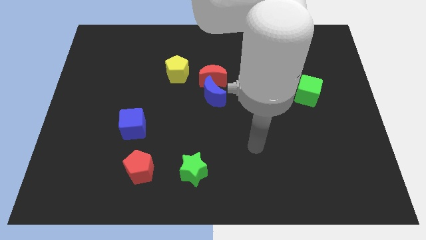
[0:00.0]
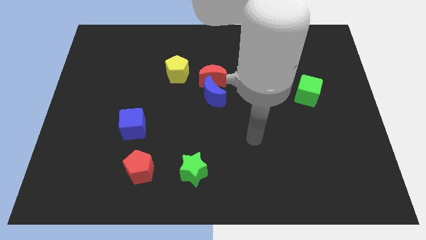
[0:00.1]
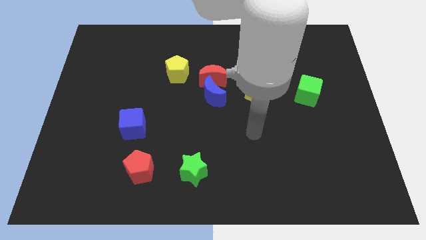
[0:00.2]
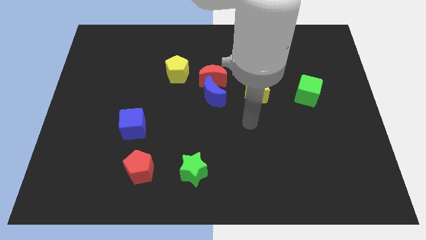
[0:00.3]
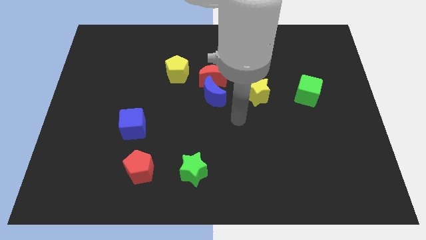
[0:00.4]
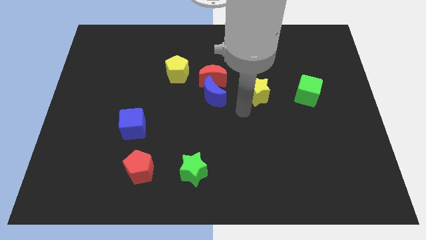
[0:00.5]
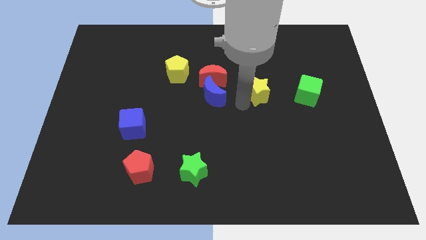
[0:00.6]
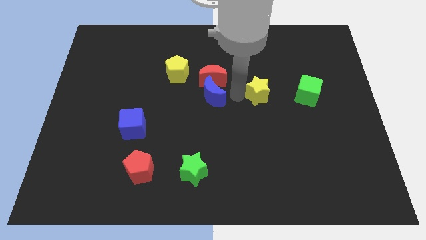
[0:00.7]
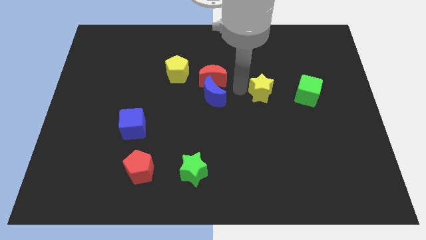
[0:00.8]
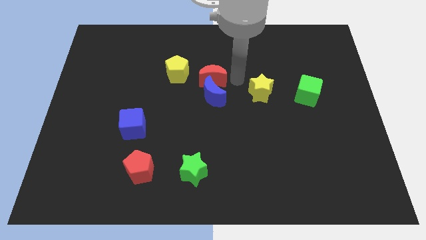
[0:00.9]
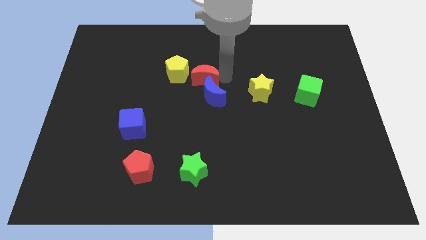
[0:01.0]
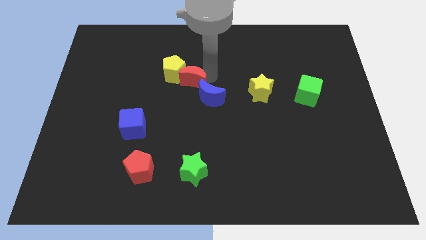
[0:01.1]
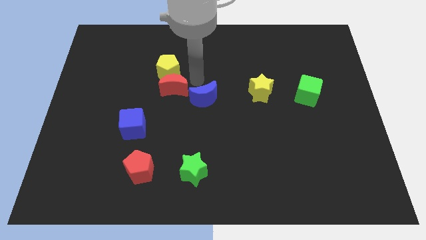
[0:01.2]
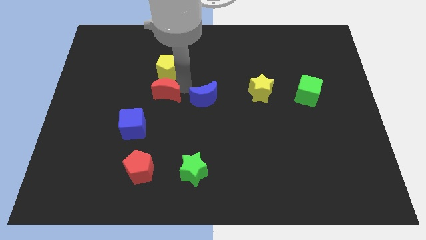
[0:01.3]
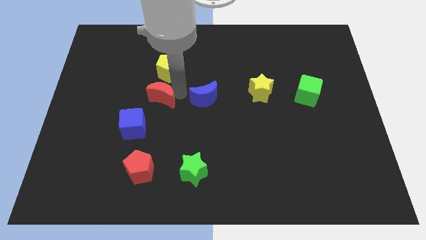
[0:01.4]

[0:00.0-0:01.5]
pull the blue moon apart from the red moon

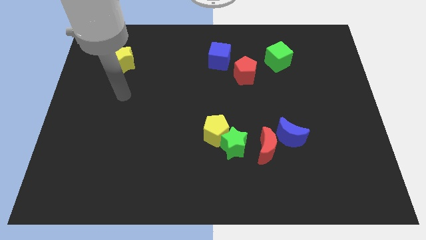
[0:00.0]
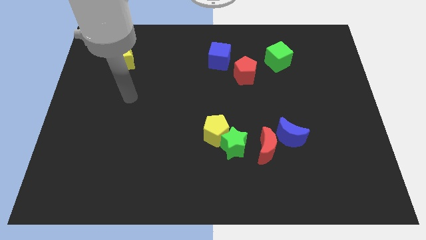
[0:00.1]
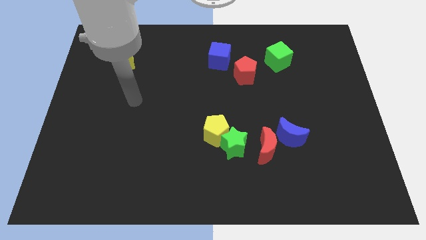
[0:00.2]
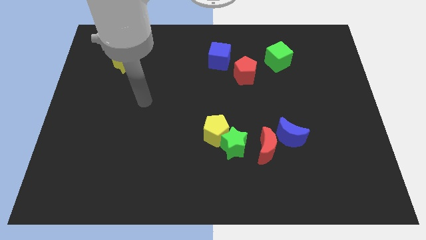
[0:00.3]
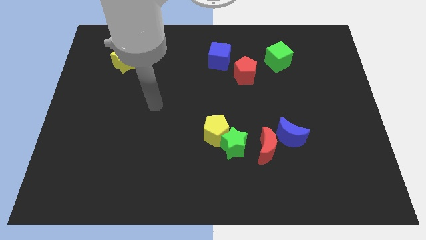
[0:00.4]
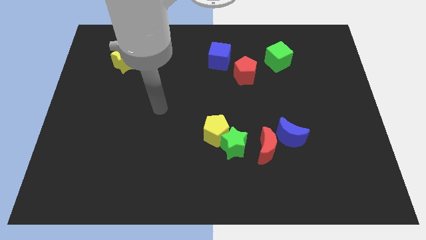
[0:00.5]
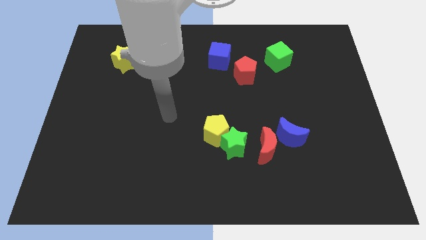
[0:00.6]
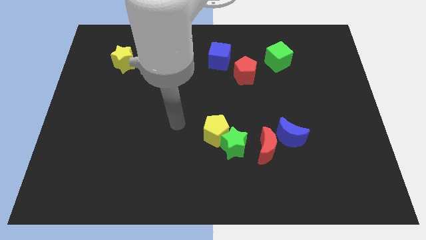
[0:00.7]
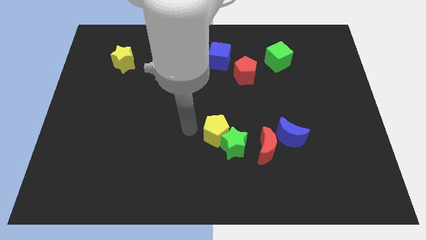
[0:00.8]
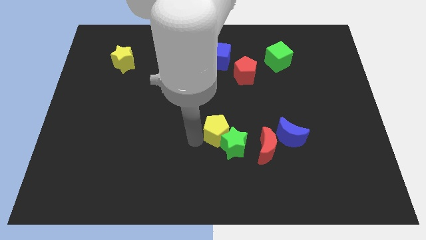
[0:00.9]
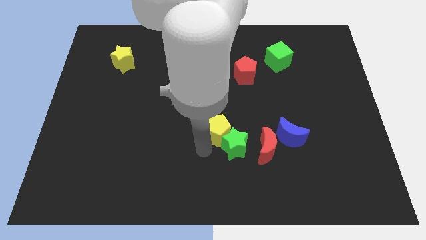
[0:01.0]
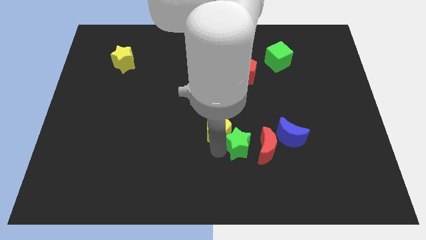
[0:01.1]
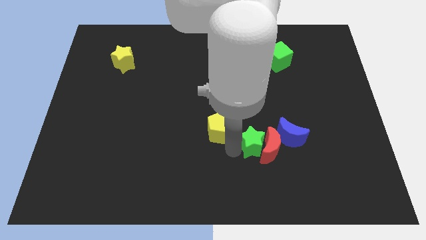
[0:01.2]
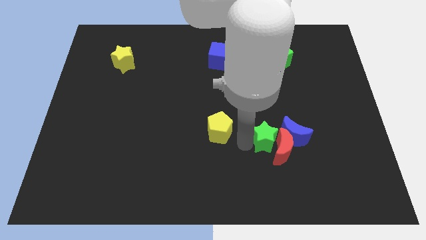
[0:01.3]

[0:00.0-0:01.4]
move the yellow pentagon away from the green star

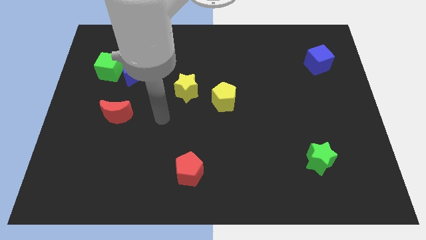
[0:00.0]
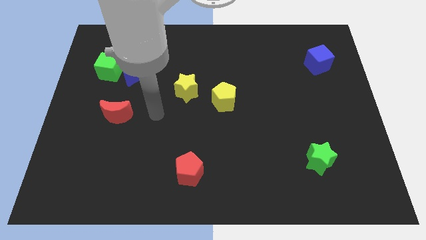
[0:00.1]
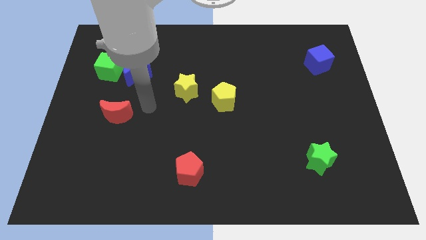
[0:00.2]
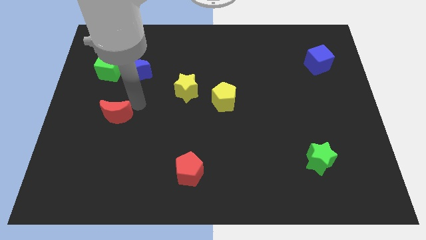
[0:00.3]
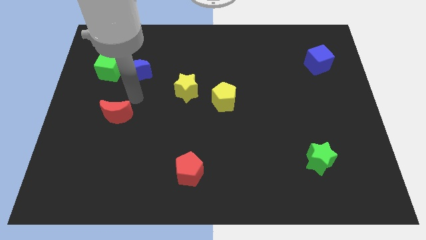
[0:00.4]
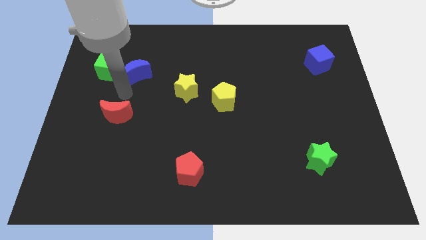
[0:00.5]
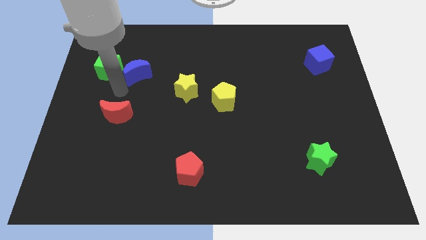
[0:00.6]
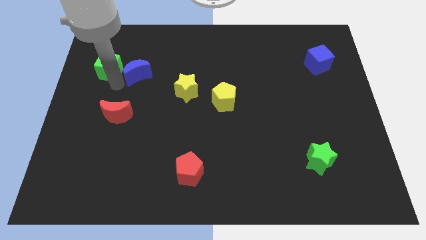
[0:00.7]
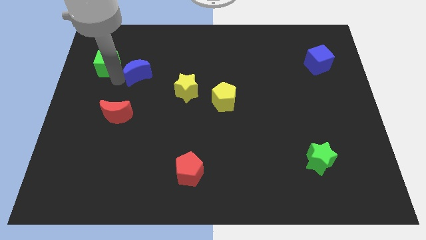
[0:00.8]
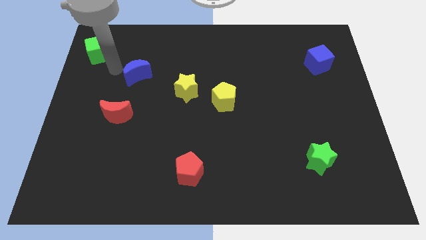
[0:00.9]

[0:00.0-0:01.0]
pull the blue moon apart from the green cube

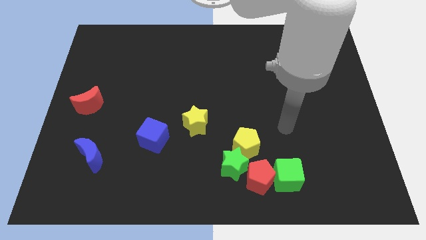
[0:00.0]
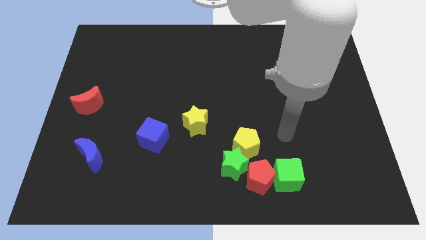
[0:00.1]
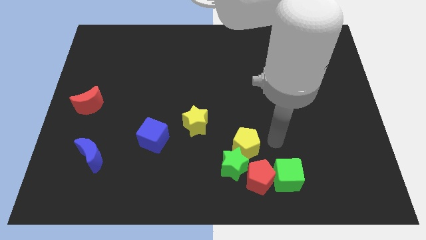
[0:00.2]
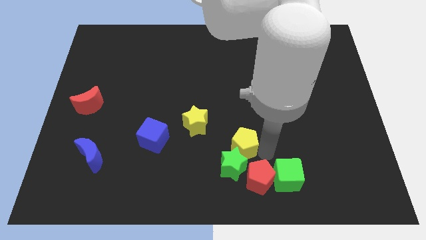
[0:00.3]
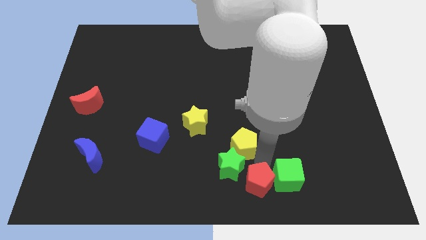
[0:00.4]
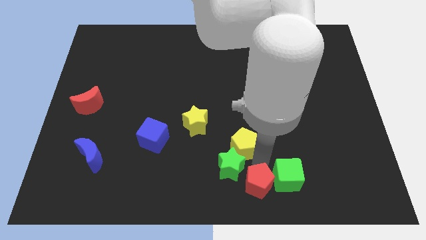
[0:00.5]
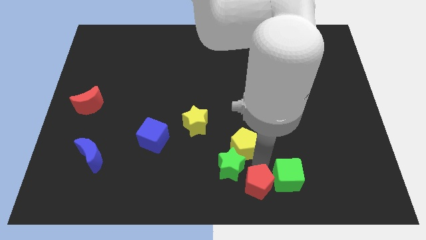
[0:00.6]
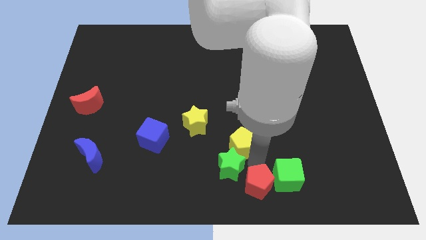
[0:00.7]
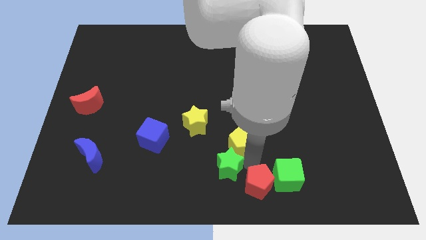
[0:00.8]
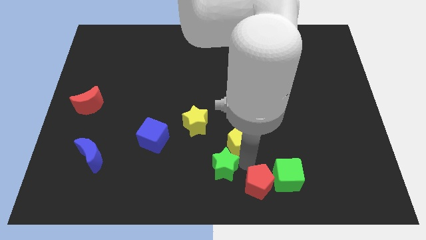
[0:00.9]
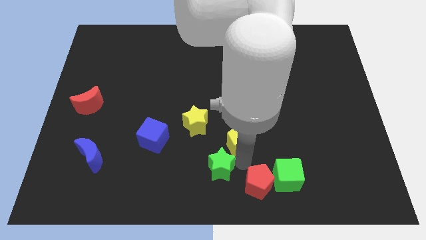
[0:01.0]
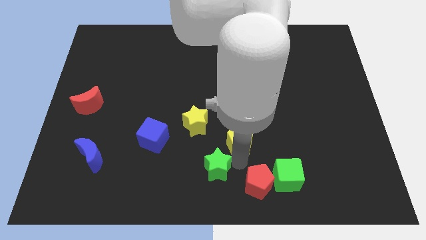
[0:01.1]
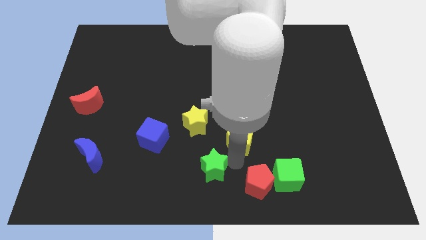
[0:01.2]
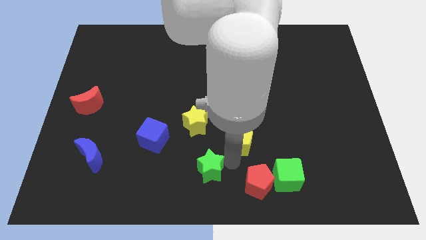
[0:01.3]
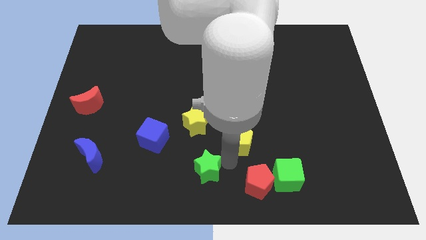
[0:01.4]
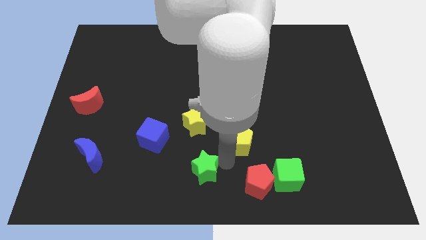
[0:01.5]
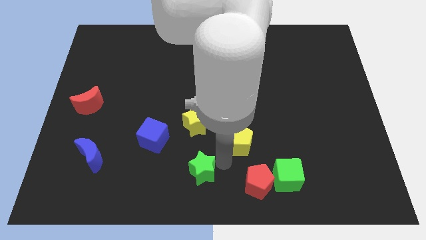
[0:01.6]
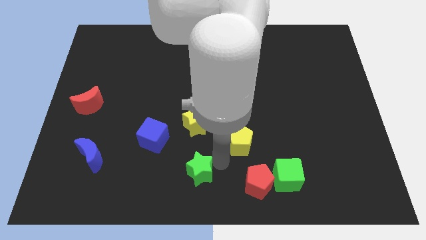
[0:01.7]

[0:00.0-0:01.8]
move the green star away from the yellow pentagon and red pentagon

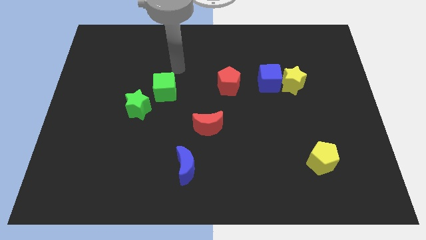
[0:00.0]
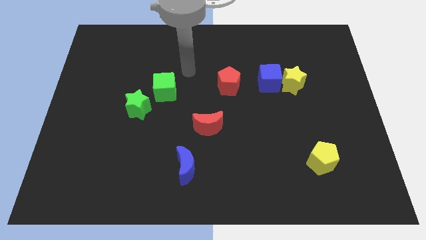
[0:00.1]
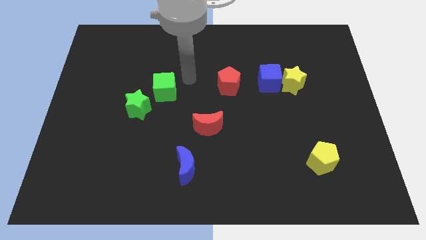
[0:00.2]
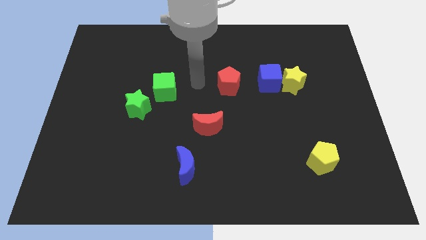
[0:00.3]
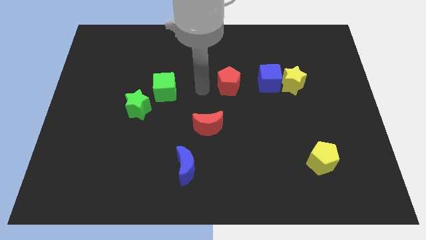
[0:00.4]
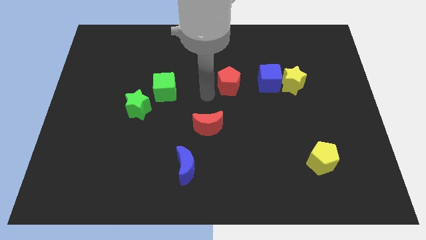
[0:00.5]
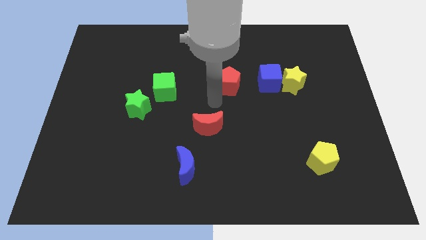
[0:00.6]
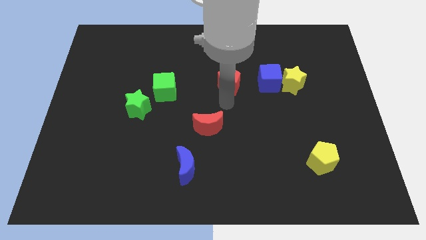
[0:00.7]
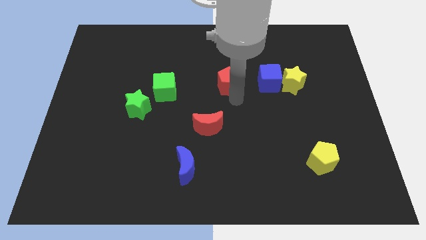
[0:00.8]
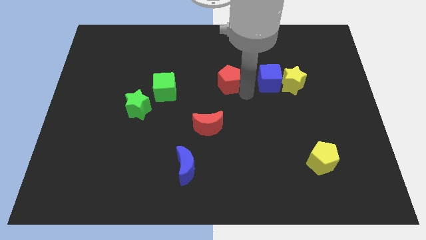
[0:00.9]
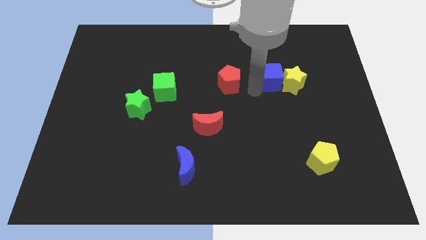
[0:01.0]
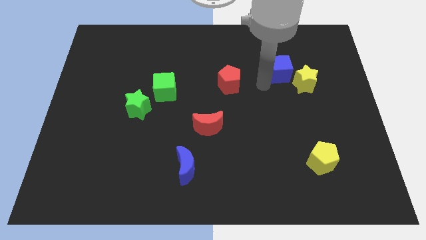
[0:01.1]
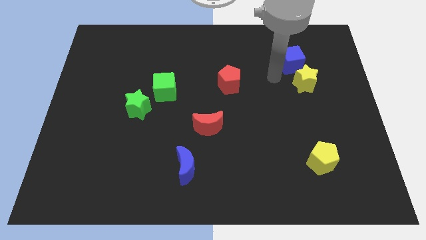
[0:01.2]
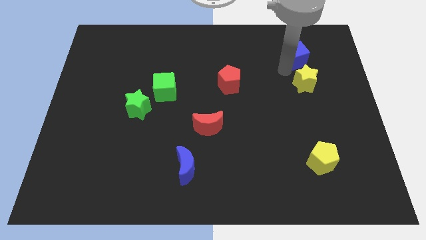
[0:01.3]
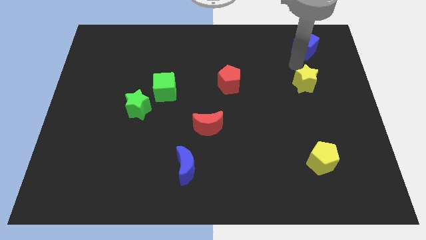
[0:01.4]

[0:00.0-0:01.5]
separate the yellow star from the blue cube

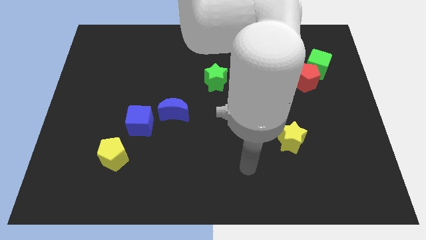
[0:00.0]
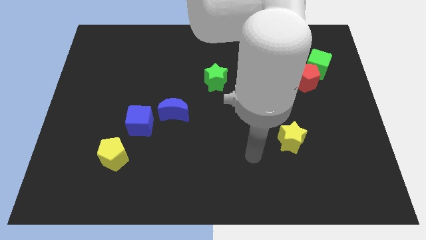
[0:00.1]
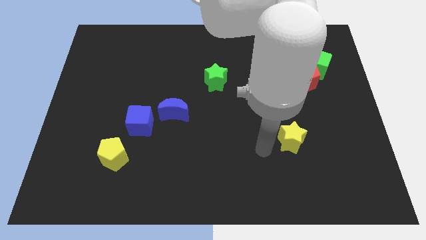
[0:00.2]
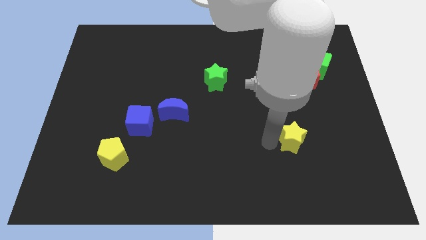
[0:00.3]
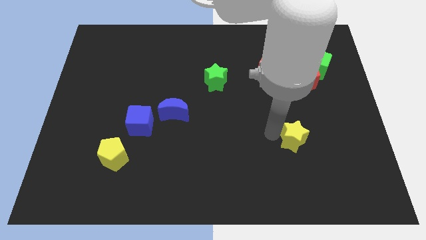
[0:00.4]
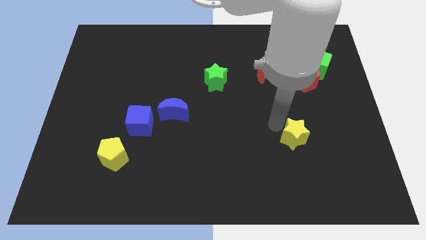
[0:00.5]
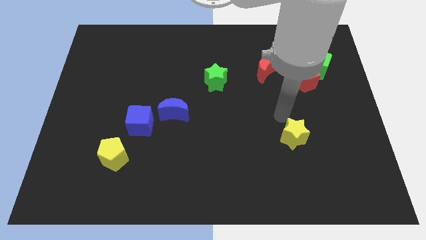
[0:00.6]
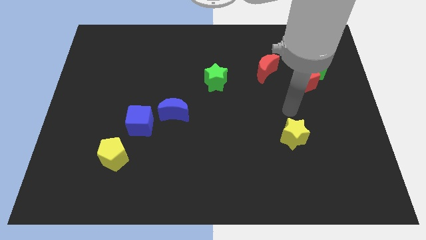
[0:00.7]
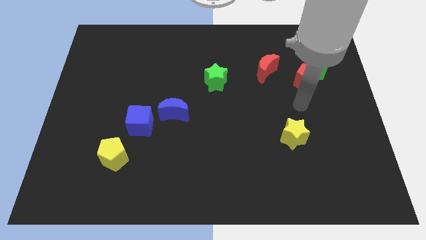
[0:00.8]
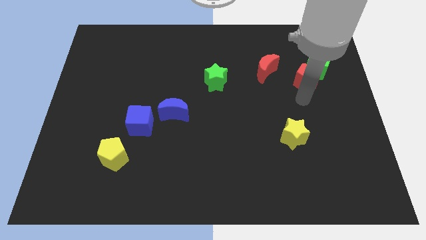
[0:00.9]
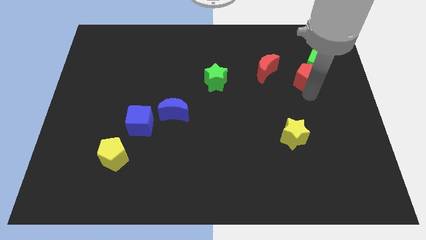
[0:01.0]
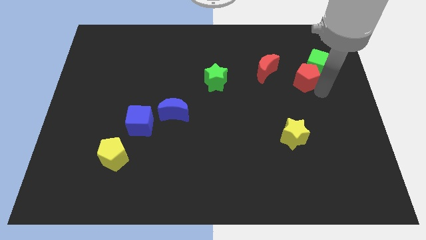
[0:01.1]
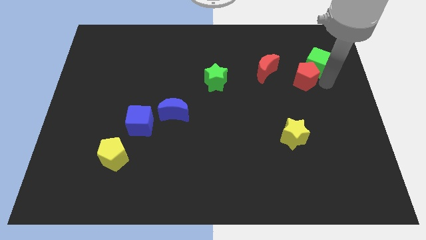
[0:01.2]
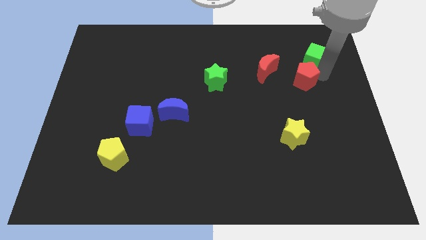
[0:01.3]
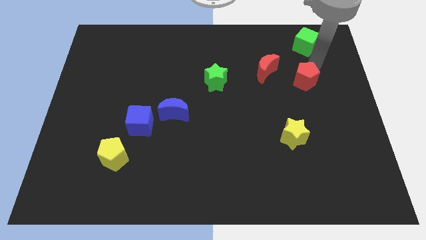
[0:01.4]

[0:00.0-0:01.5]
separate the red pentagon from the green cube

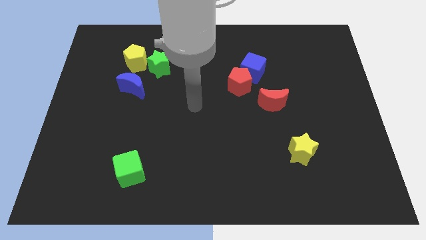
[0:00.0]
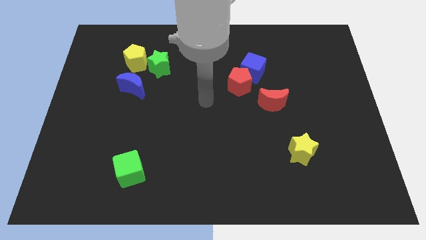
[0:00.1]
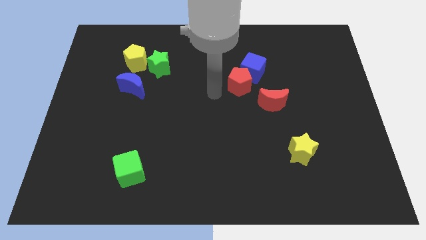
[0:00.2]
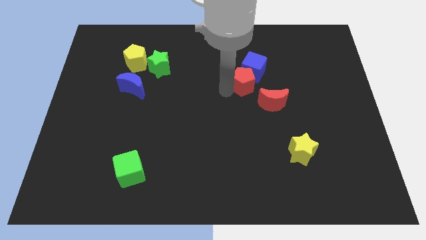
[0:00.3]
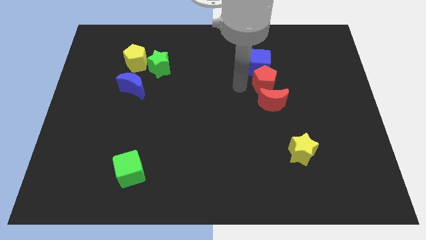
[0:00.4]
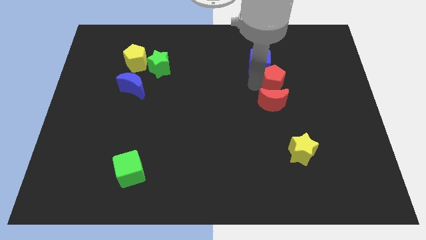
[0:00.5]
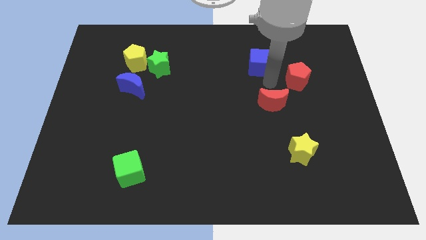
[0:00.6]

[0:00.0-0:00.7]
separate the blue cube from the red pentagon
